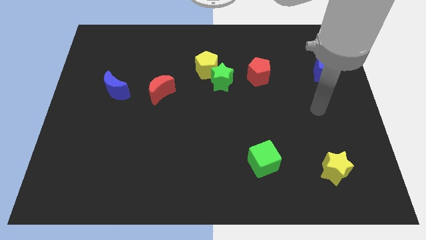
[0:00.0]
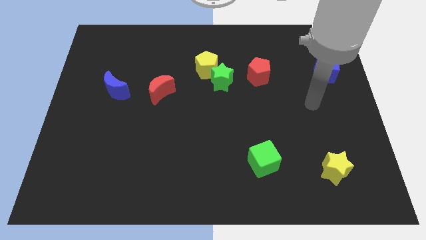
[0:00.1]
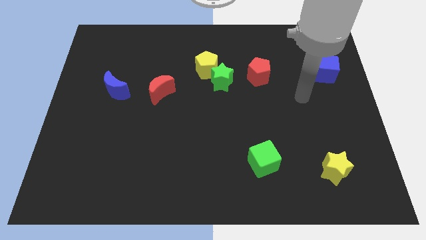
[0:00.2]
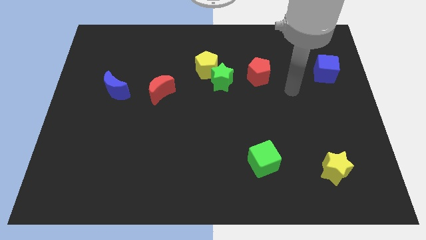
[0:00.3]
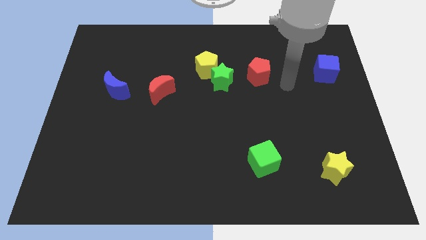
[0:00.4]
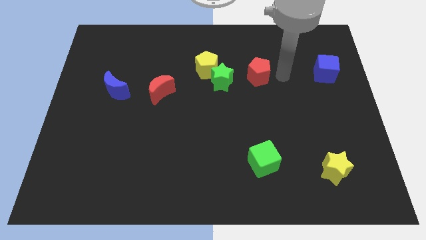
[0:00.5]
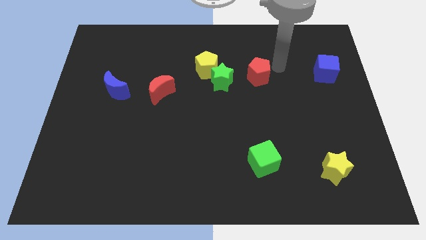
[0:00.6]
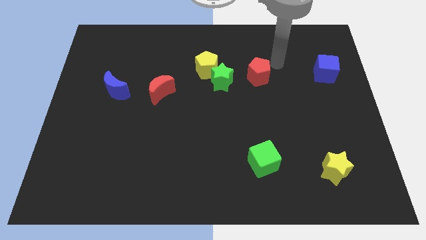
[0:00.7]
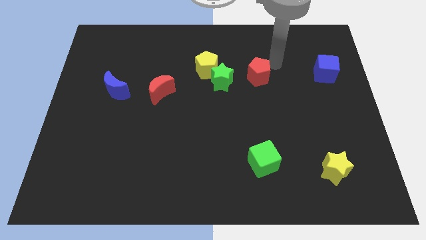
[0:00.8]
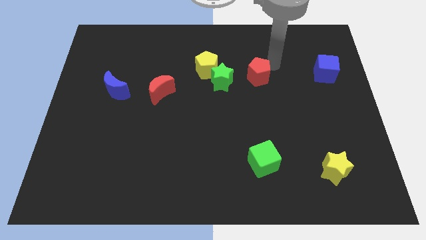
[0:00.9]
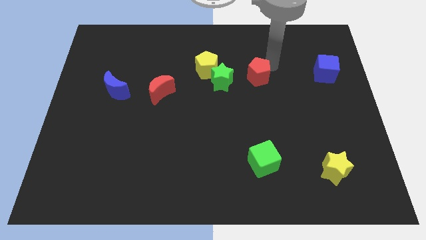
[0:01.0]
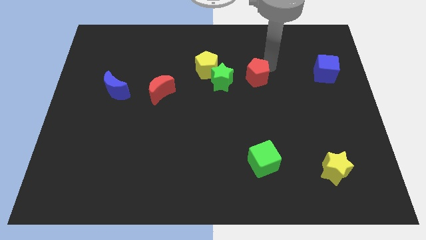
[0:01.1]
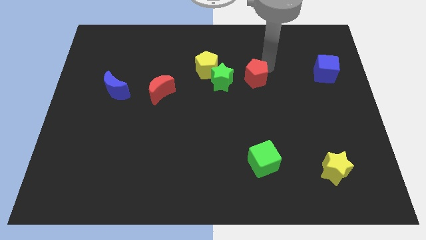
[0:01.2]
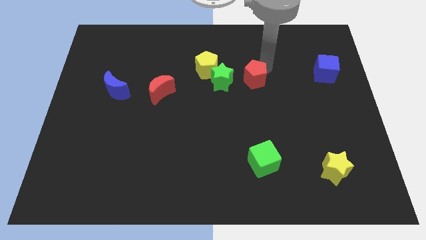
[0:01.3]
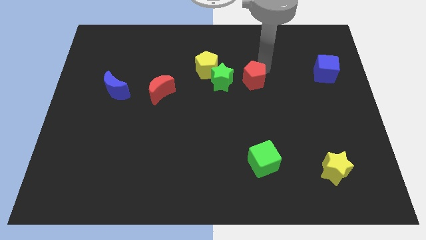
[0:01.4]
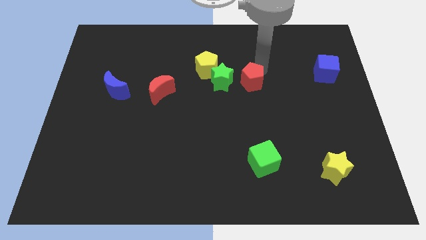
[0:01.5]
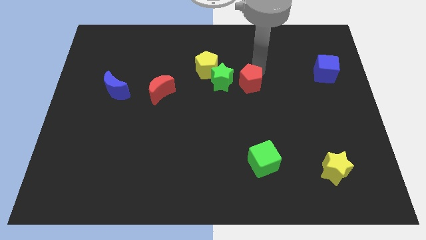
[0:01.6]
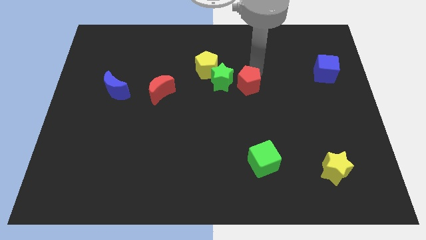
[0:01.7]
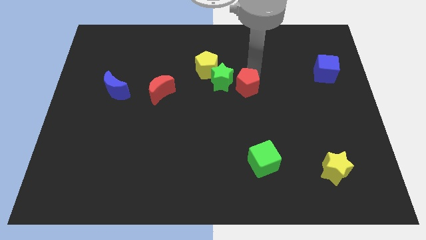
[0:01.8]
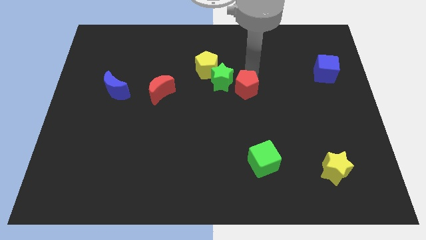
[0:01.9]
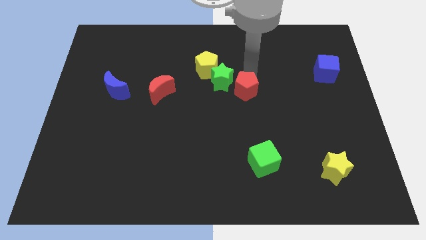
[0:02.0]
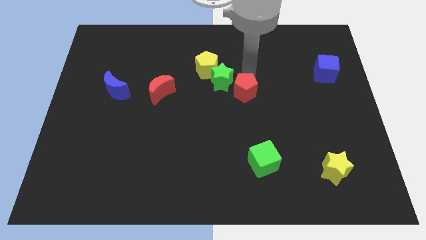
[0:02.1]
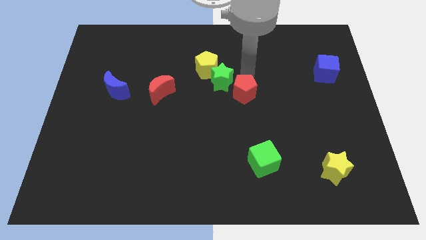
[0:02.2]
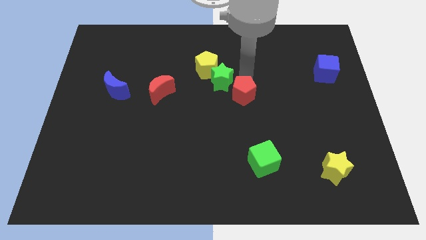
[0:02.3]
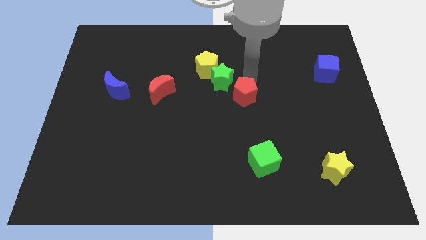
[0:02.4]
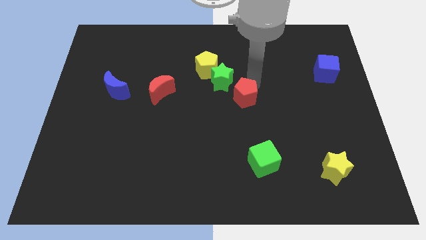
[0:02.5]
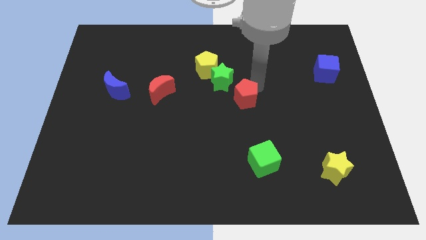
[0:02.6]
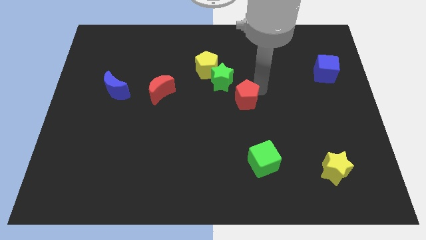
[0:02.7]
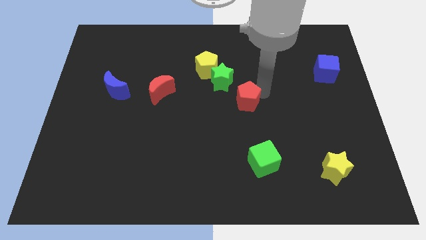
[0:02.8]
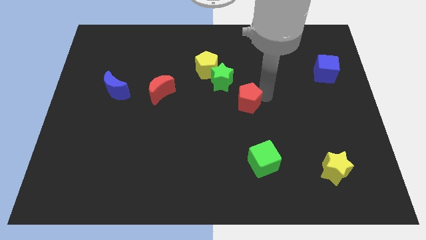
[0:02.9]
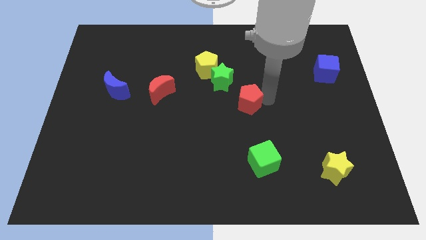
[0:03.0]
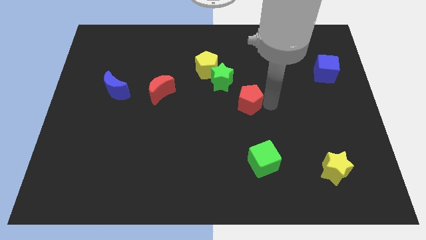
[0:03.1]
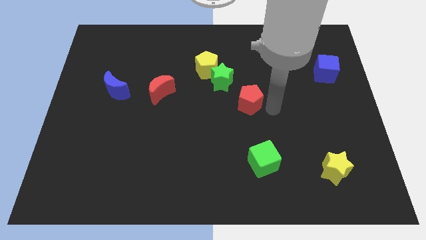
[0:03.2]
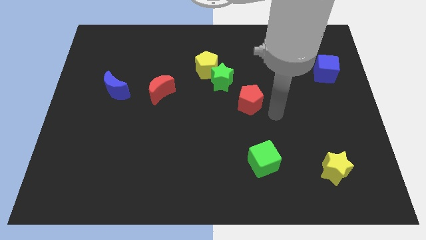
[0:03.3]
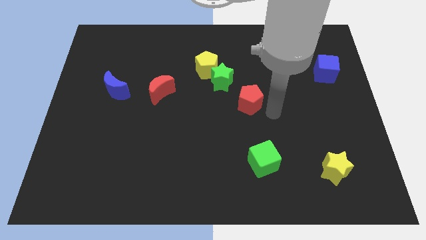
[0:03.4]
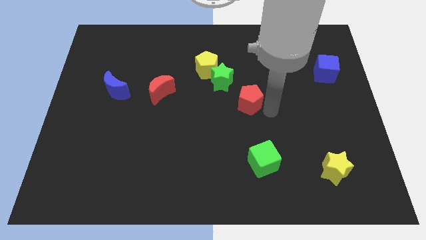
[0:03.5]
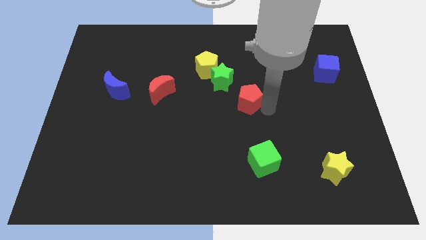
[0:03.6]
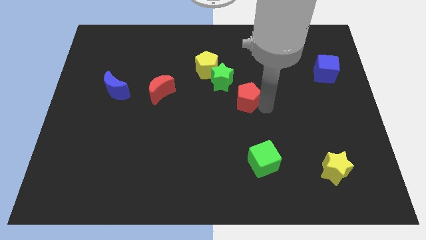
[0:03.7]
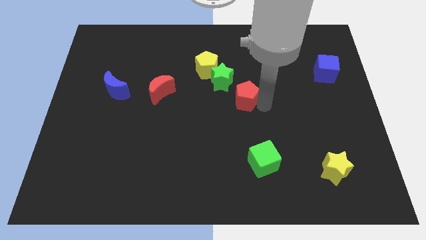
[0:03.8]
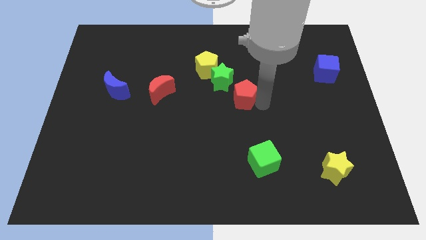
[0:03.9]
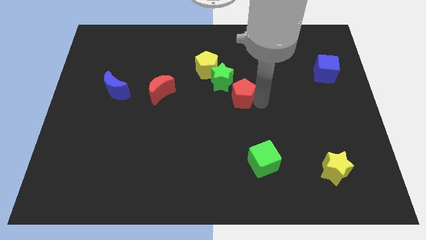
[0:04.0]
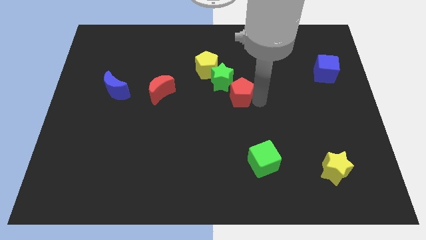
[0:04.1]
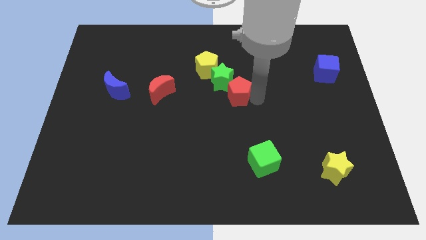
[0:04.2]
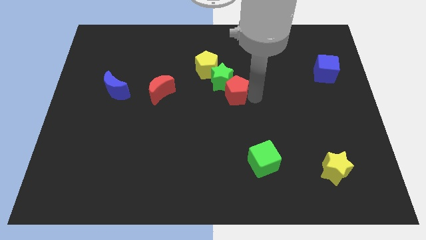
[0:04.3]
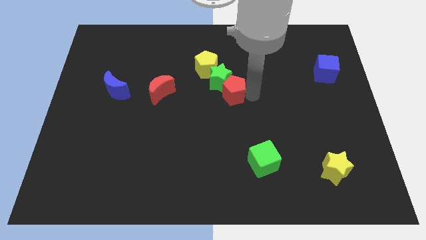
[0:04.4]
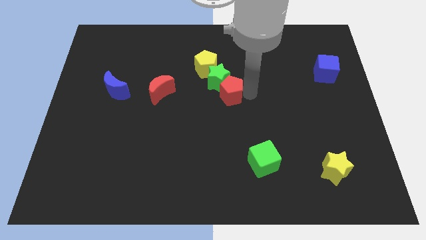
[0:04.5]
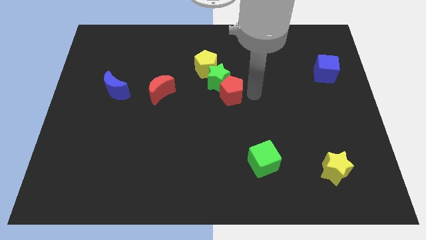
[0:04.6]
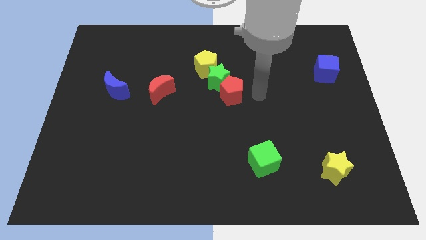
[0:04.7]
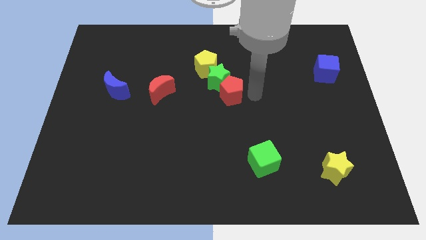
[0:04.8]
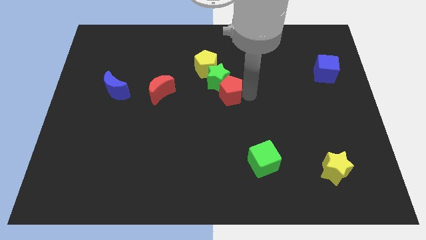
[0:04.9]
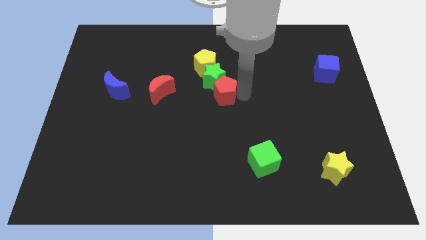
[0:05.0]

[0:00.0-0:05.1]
push the red pentagon left a little bit

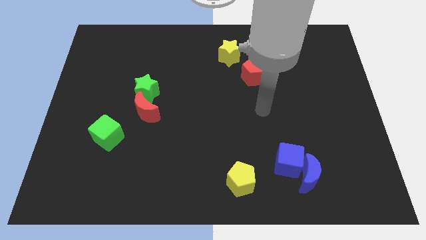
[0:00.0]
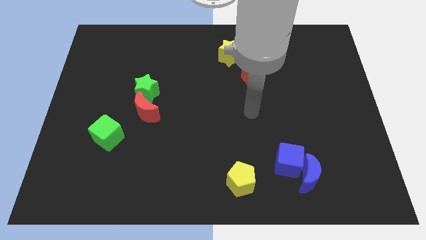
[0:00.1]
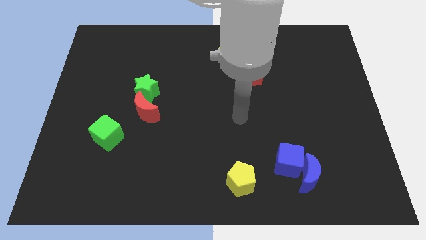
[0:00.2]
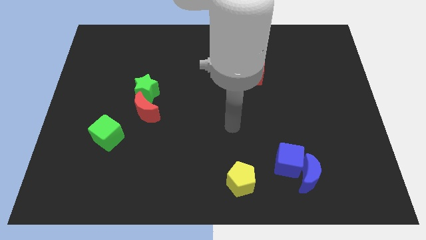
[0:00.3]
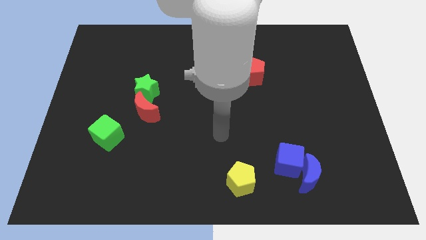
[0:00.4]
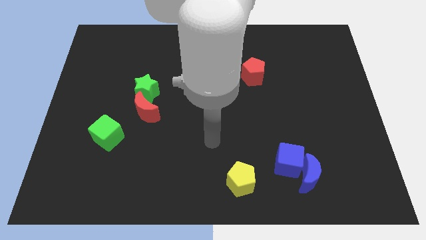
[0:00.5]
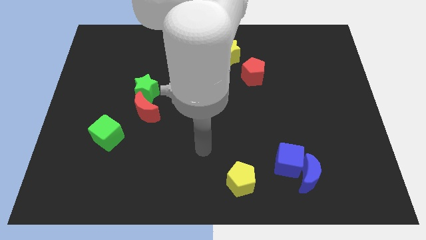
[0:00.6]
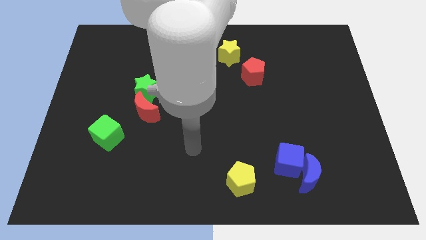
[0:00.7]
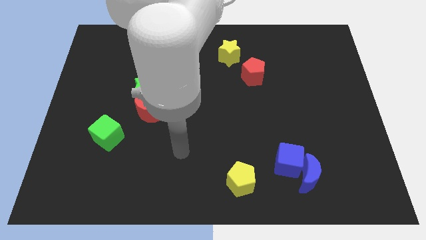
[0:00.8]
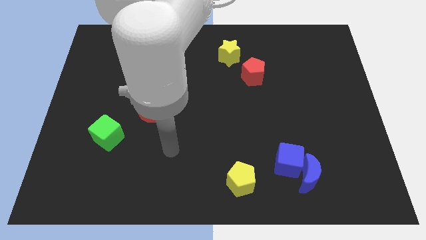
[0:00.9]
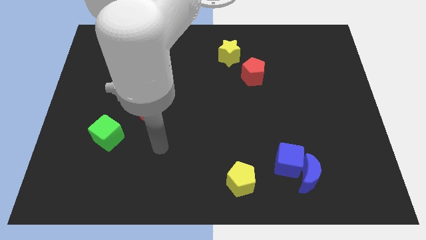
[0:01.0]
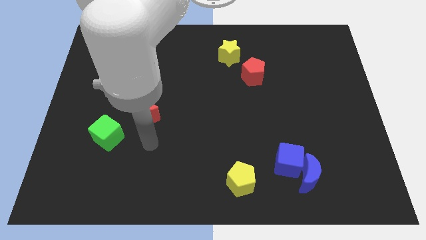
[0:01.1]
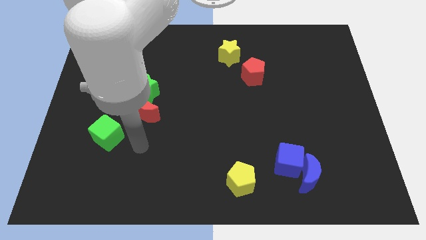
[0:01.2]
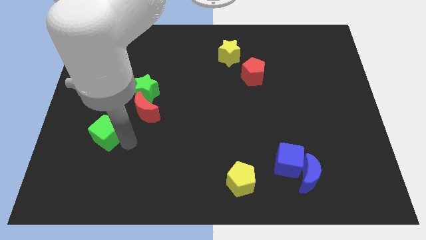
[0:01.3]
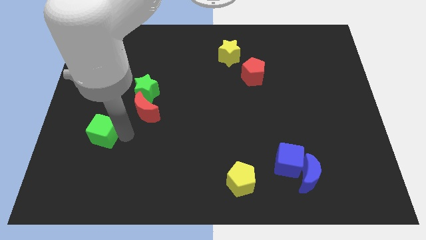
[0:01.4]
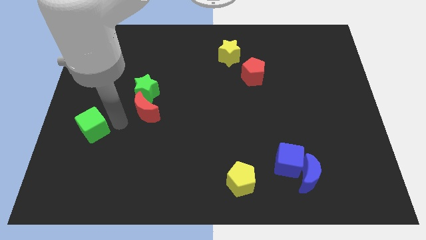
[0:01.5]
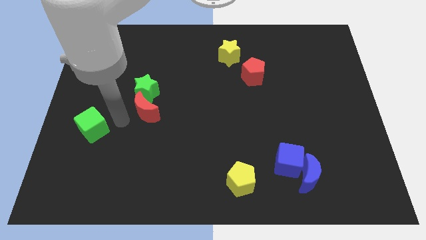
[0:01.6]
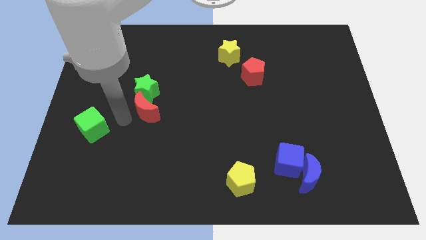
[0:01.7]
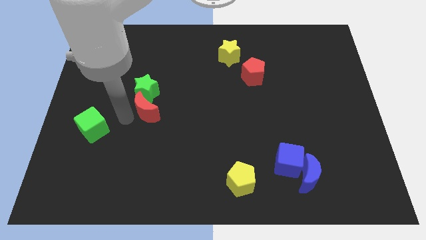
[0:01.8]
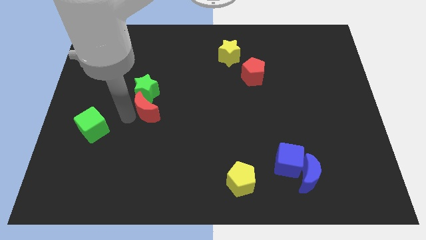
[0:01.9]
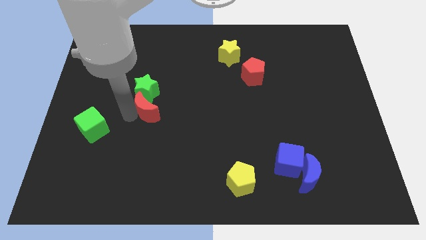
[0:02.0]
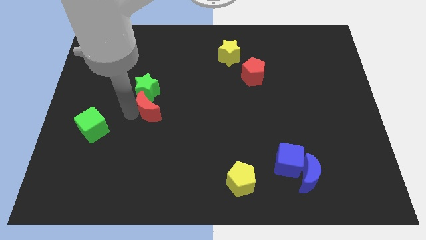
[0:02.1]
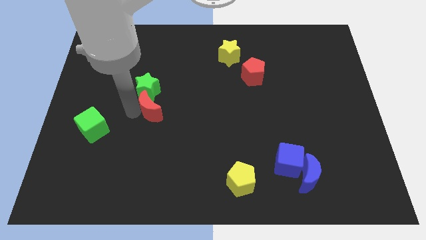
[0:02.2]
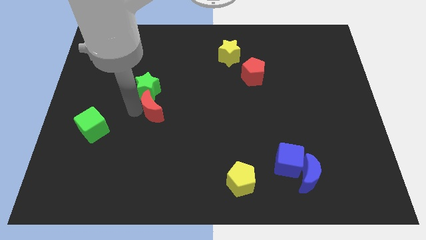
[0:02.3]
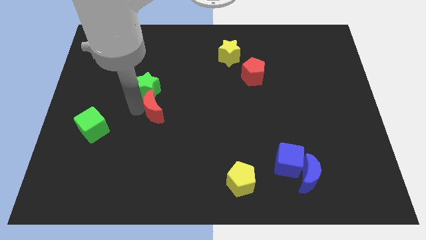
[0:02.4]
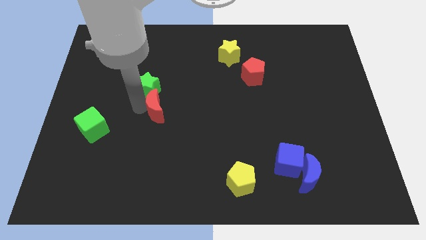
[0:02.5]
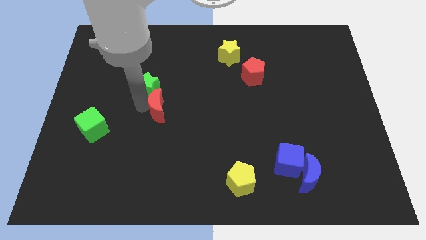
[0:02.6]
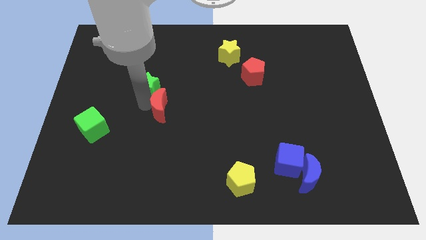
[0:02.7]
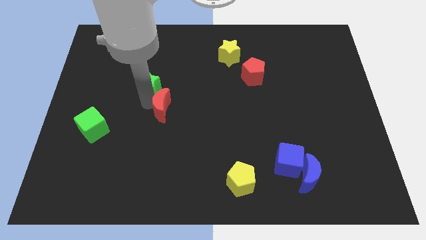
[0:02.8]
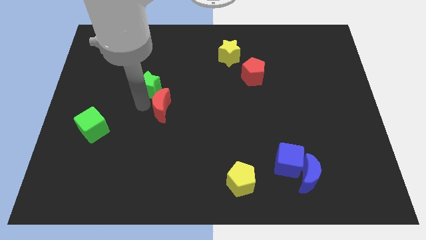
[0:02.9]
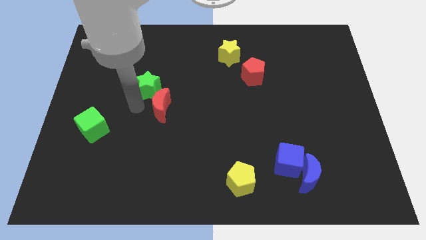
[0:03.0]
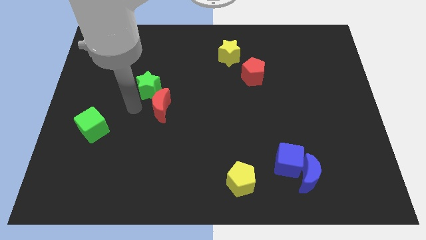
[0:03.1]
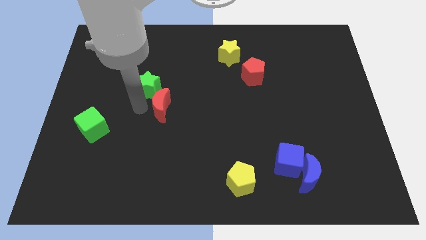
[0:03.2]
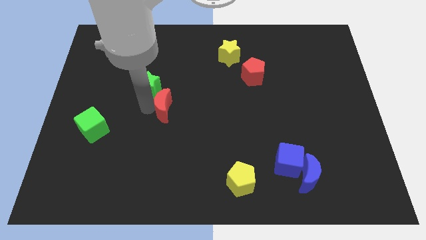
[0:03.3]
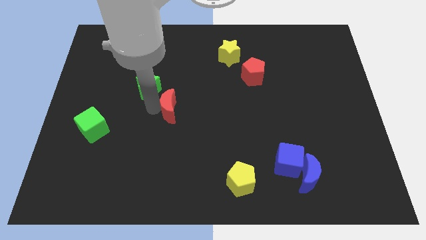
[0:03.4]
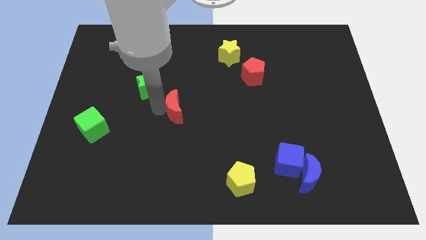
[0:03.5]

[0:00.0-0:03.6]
push the red moon a bit right
